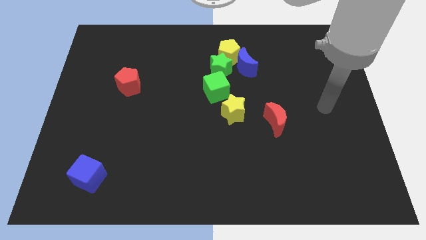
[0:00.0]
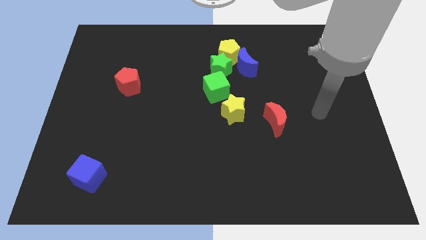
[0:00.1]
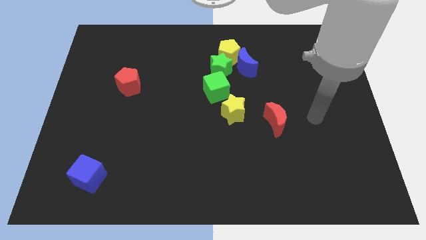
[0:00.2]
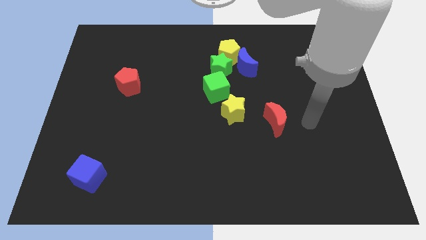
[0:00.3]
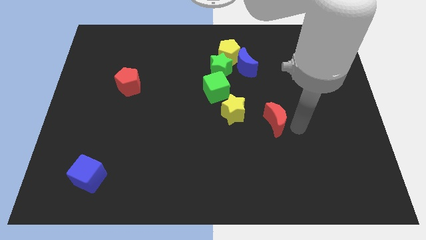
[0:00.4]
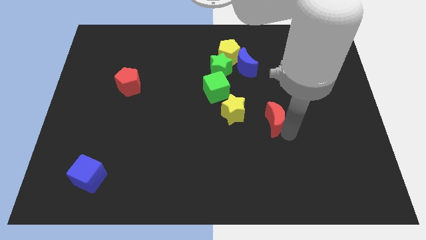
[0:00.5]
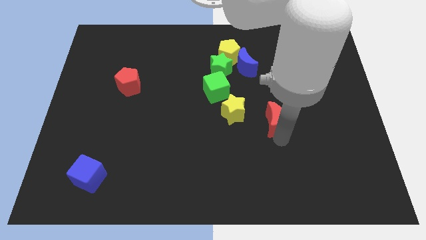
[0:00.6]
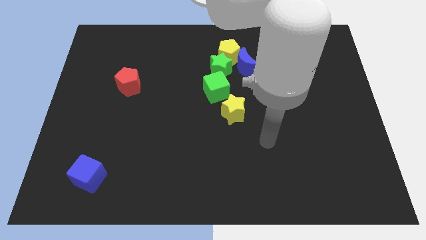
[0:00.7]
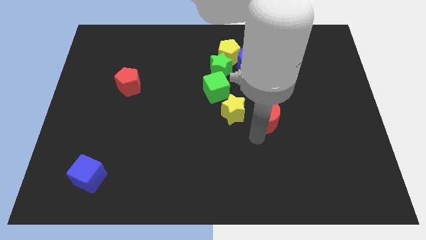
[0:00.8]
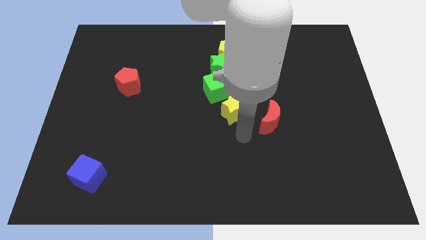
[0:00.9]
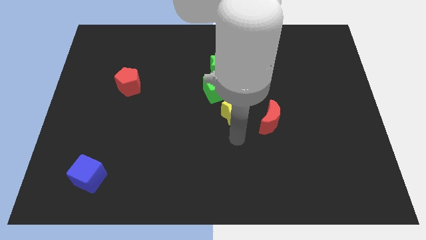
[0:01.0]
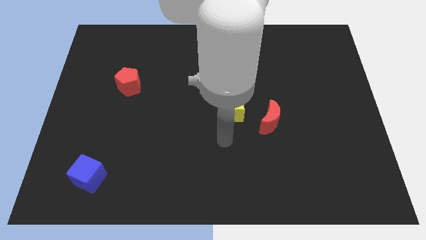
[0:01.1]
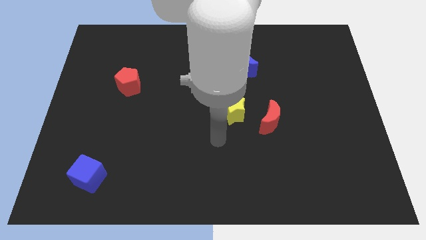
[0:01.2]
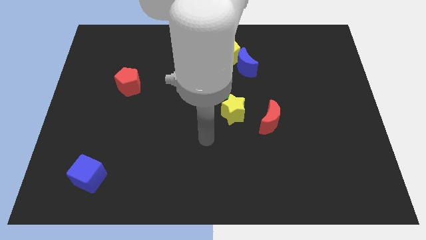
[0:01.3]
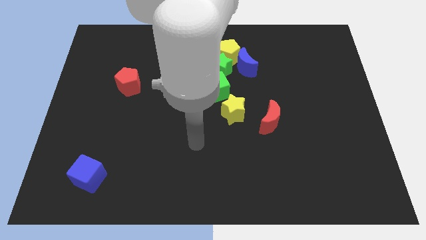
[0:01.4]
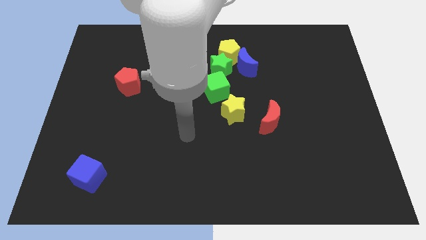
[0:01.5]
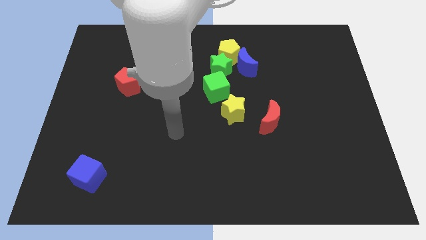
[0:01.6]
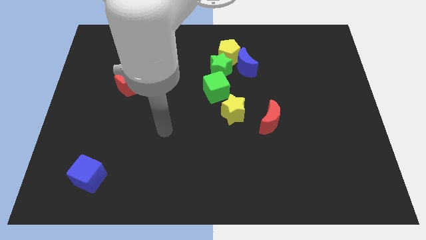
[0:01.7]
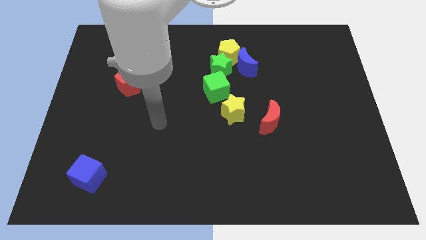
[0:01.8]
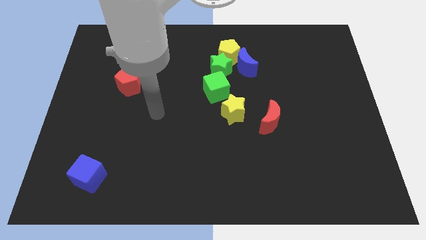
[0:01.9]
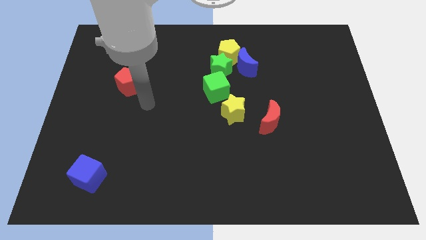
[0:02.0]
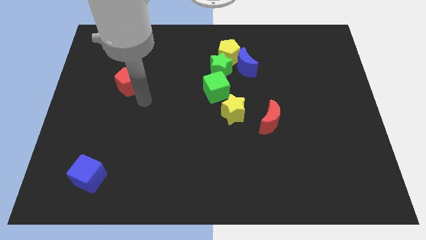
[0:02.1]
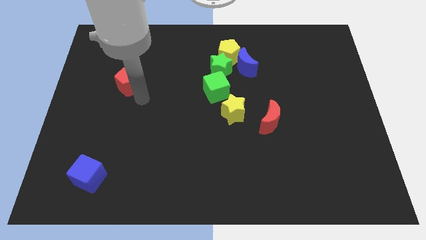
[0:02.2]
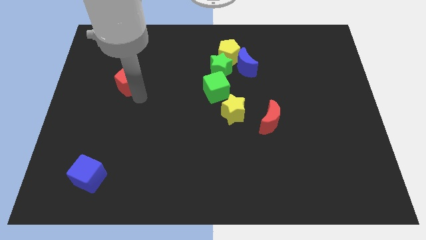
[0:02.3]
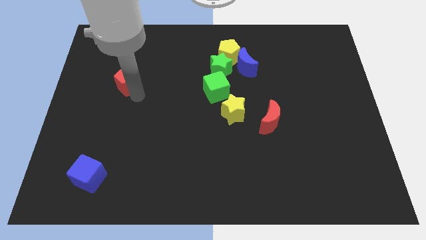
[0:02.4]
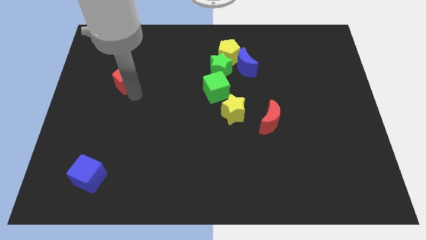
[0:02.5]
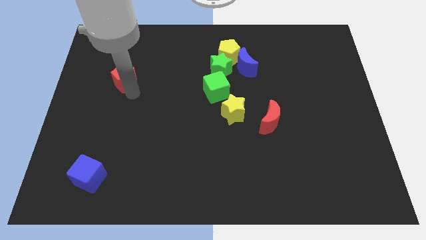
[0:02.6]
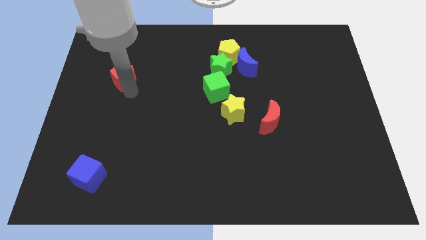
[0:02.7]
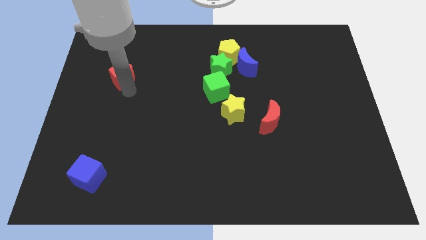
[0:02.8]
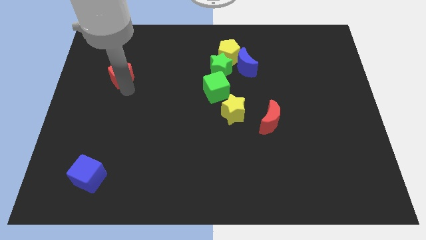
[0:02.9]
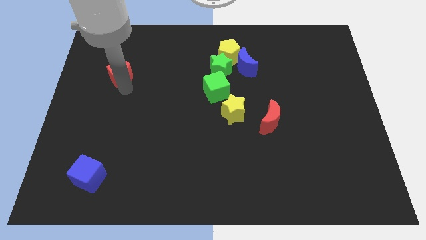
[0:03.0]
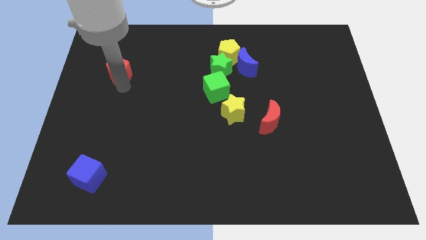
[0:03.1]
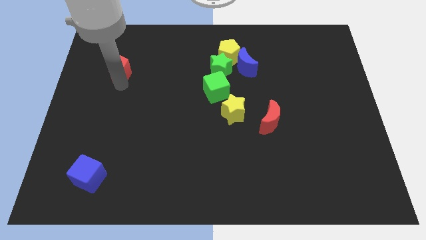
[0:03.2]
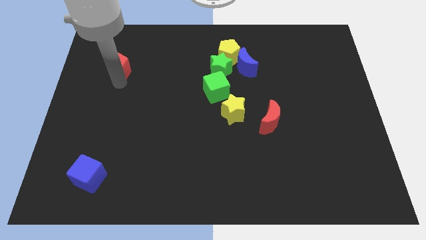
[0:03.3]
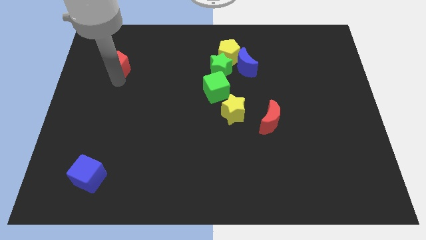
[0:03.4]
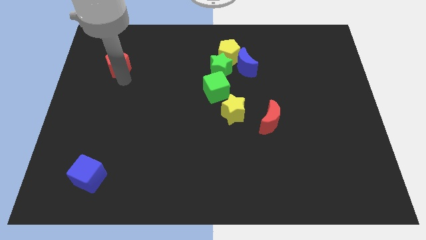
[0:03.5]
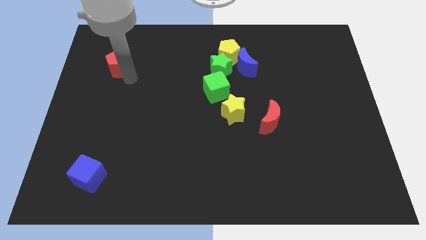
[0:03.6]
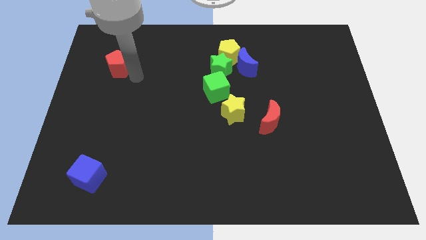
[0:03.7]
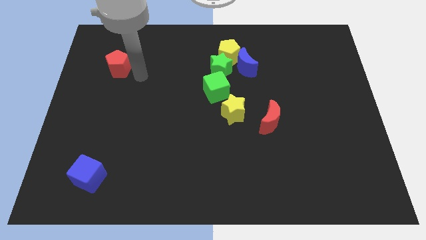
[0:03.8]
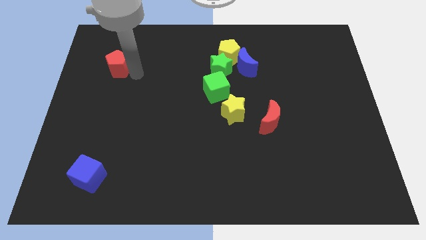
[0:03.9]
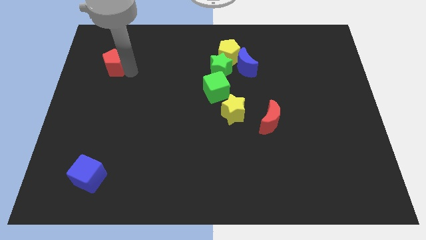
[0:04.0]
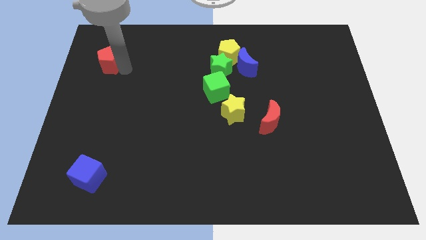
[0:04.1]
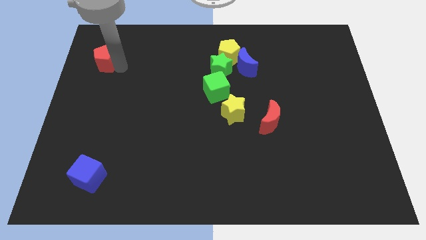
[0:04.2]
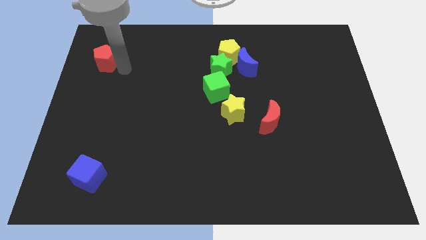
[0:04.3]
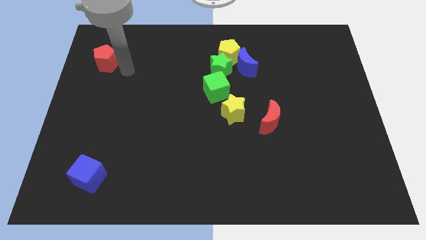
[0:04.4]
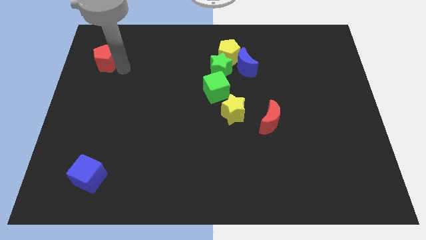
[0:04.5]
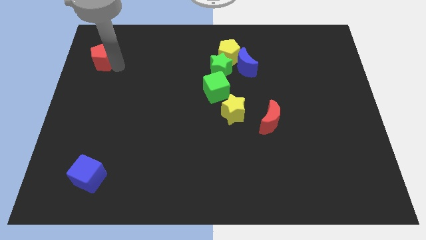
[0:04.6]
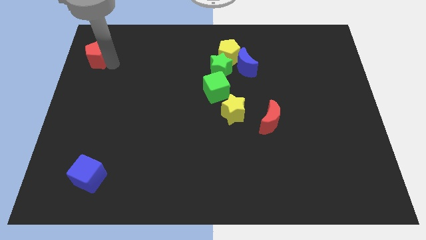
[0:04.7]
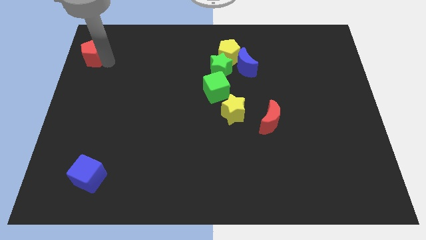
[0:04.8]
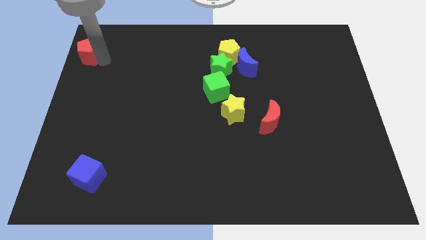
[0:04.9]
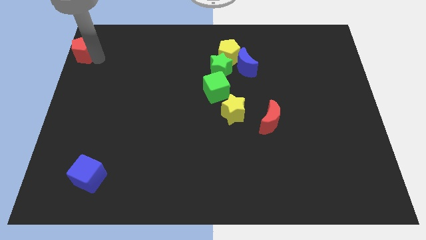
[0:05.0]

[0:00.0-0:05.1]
slide the red pentagon to the top left of the board
